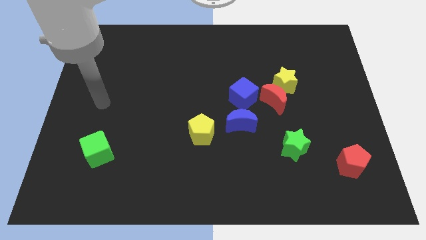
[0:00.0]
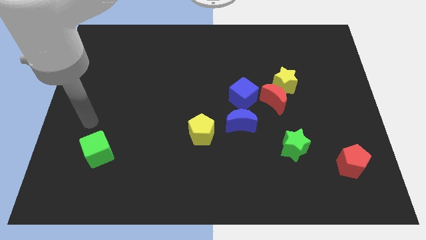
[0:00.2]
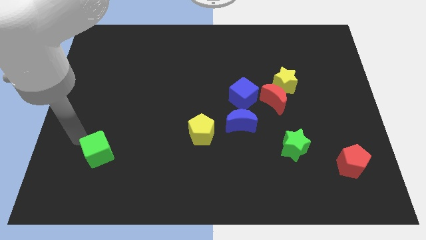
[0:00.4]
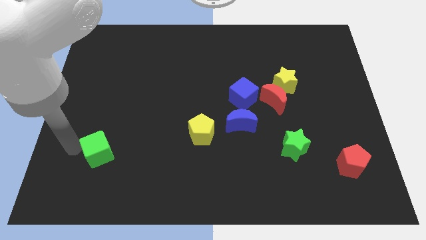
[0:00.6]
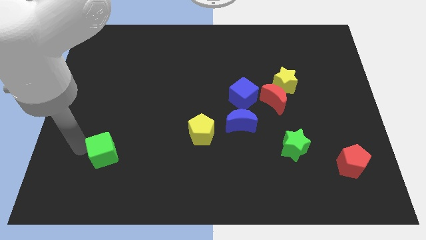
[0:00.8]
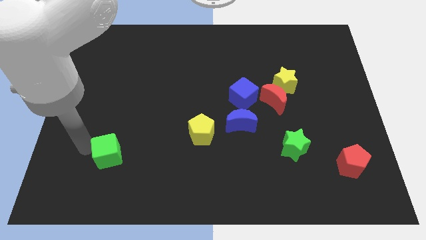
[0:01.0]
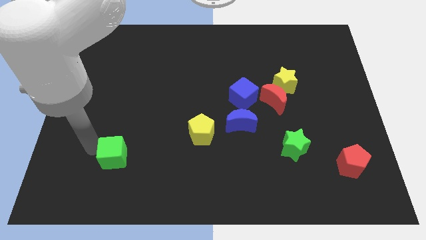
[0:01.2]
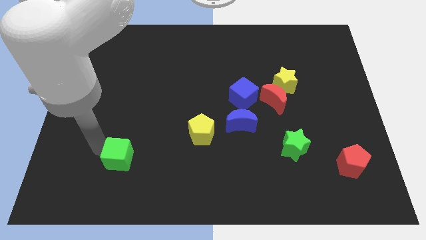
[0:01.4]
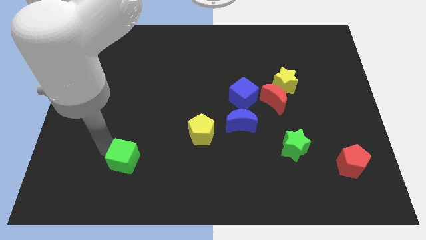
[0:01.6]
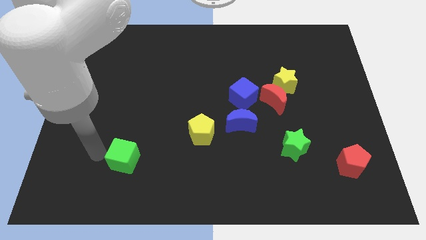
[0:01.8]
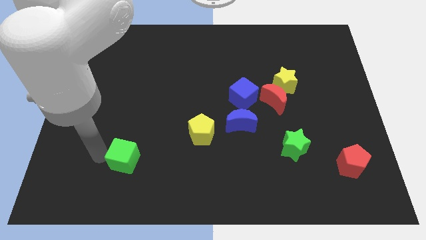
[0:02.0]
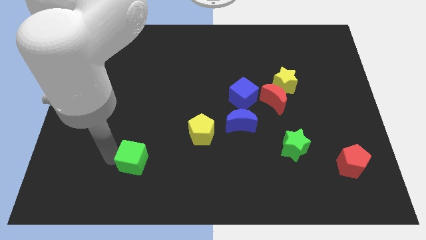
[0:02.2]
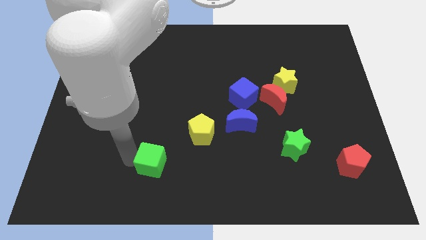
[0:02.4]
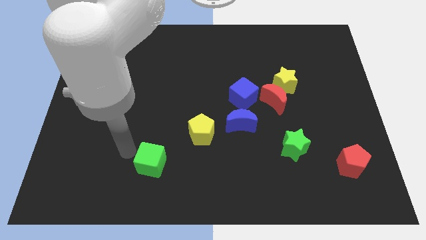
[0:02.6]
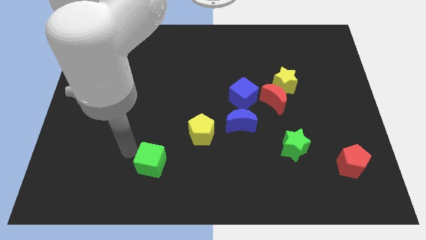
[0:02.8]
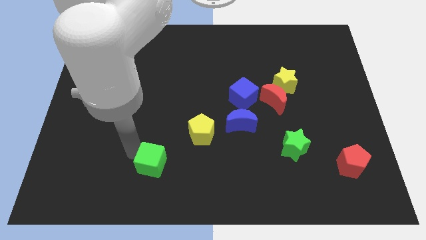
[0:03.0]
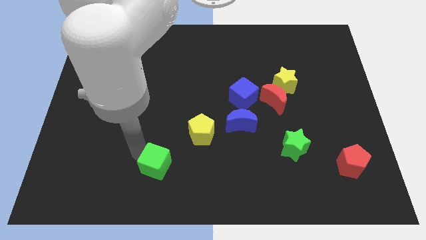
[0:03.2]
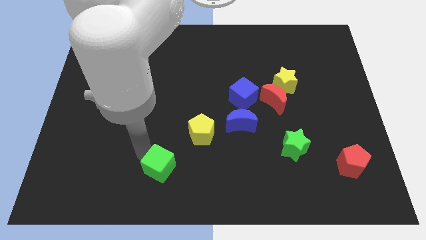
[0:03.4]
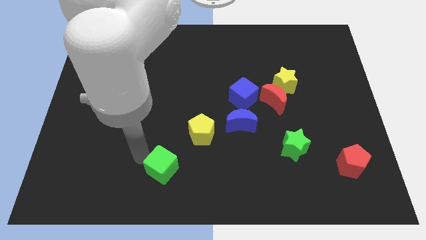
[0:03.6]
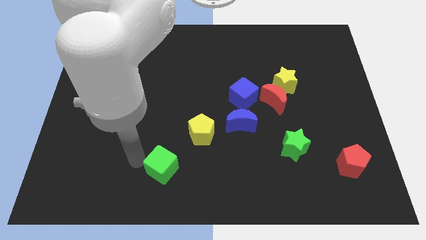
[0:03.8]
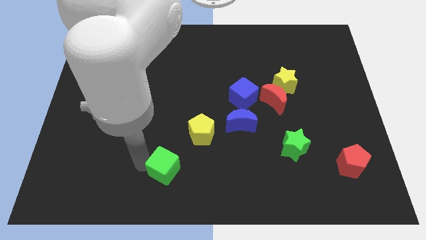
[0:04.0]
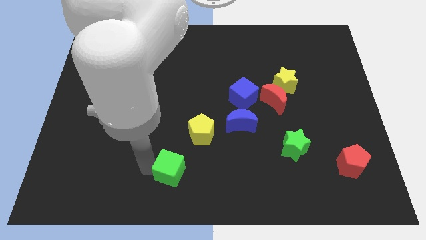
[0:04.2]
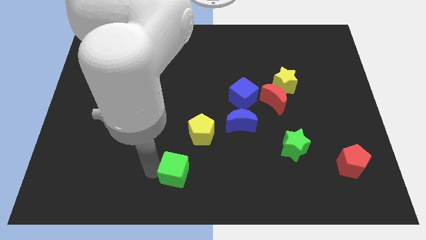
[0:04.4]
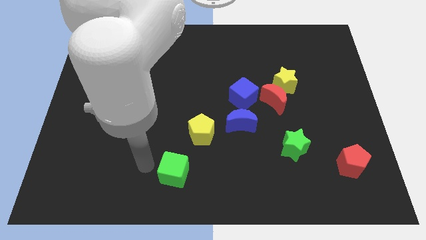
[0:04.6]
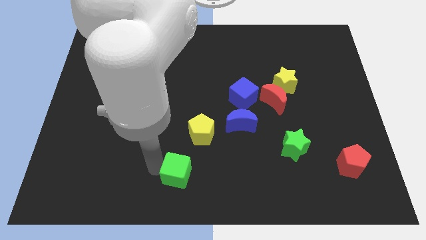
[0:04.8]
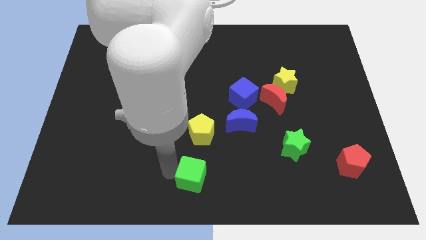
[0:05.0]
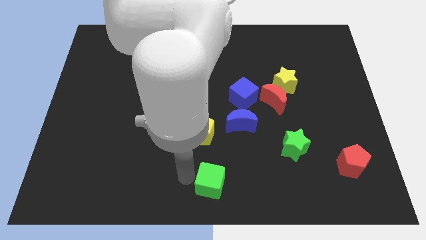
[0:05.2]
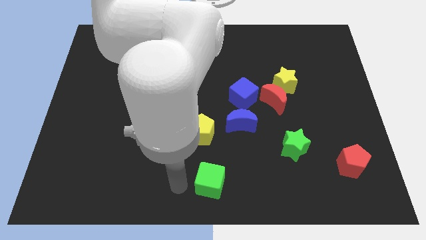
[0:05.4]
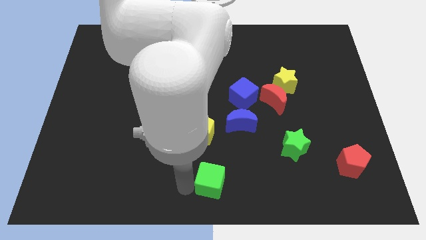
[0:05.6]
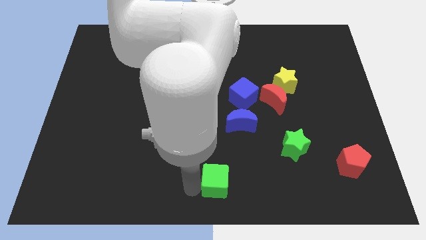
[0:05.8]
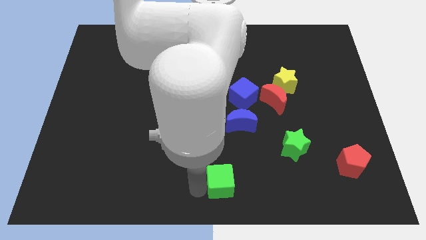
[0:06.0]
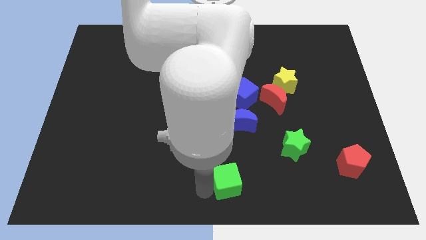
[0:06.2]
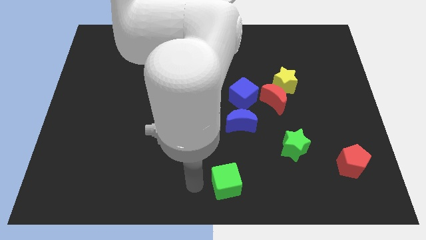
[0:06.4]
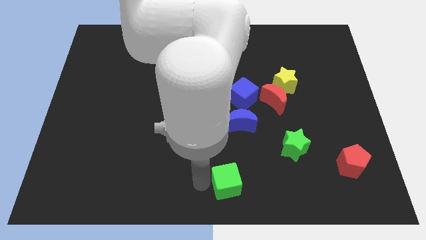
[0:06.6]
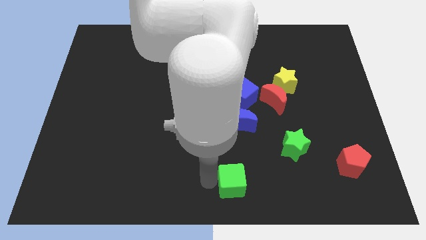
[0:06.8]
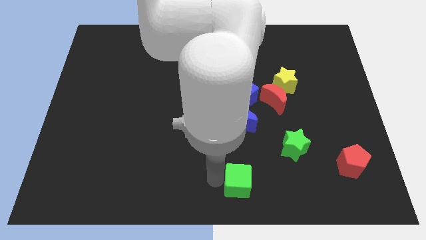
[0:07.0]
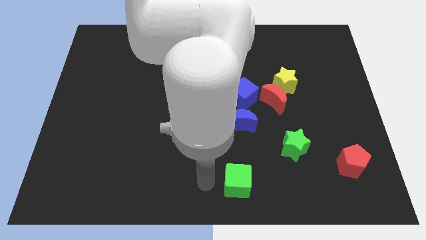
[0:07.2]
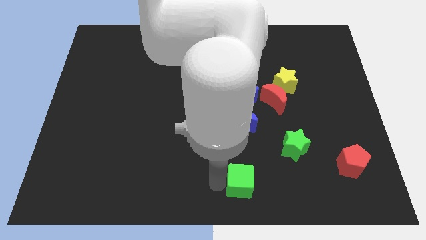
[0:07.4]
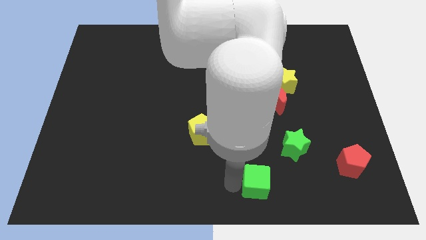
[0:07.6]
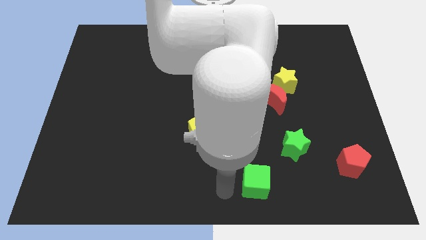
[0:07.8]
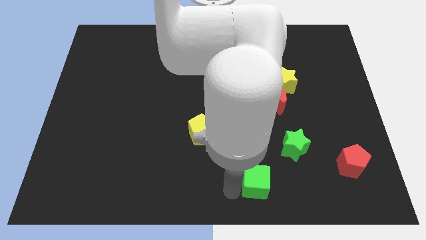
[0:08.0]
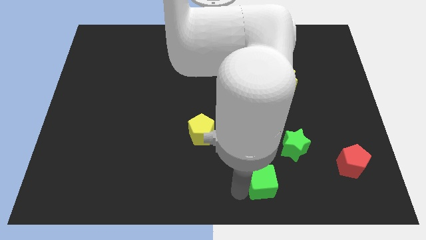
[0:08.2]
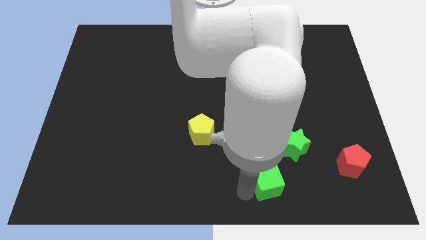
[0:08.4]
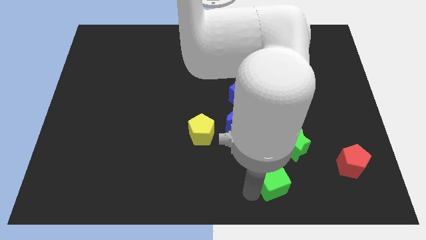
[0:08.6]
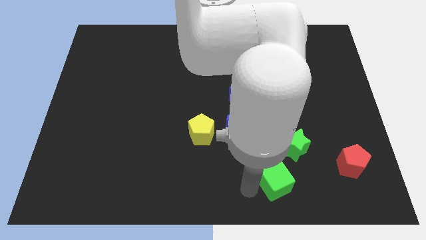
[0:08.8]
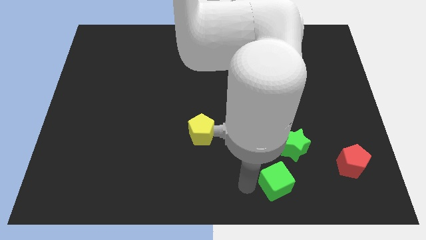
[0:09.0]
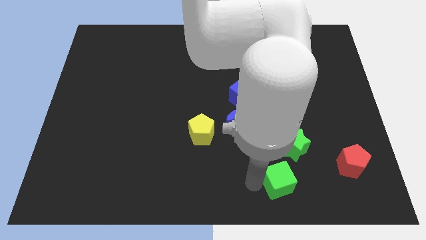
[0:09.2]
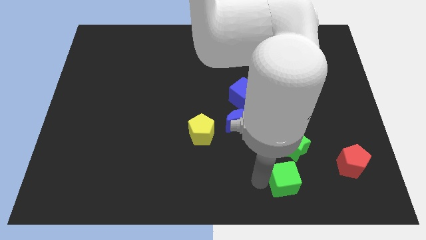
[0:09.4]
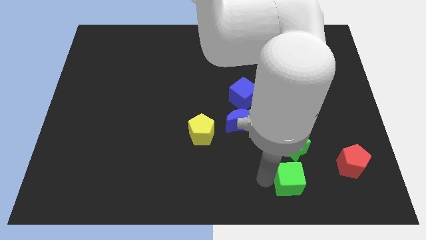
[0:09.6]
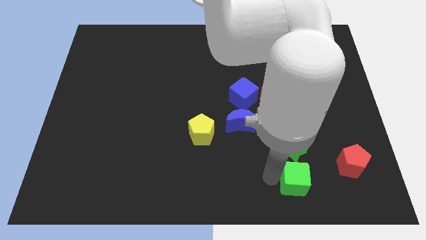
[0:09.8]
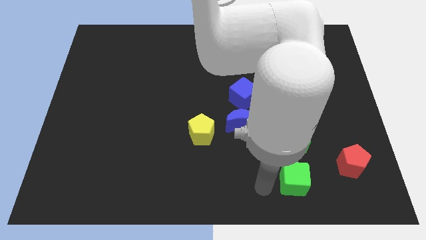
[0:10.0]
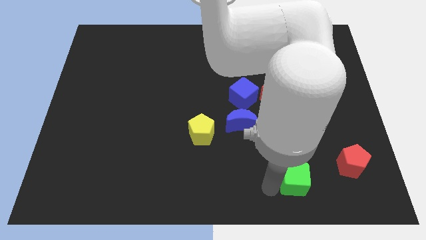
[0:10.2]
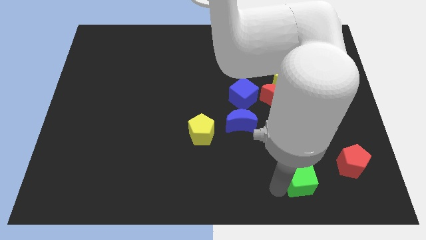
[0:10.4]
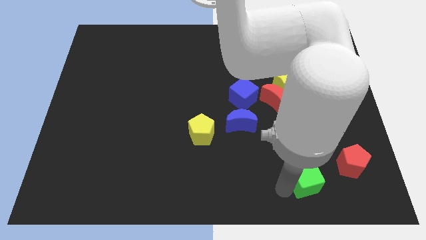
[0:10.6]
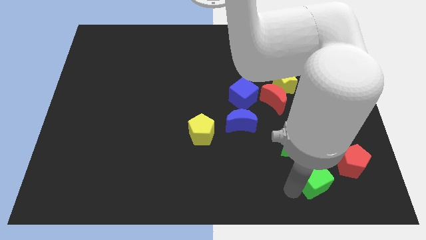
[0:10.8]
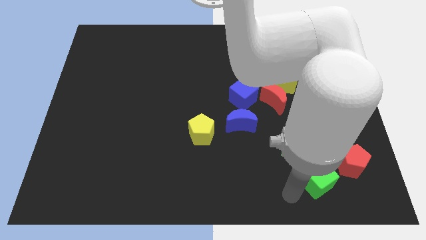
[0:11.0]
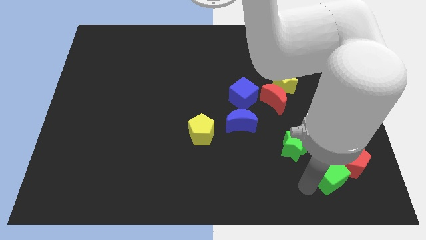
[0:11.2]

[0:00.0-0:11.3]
put the green cube towards the red pentagon

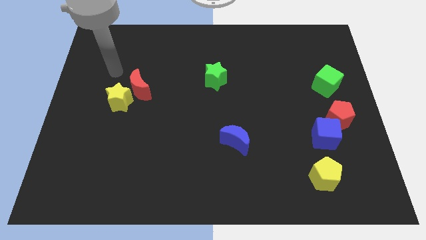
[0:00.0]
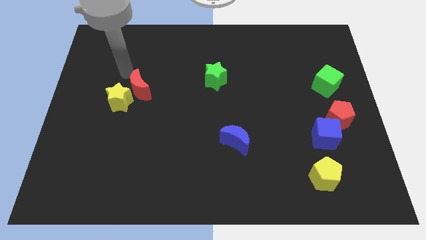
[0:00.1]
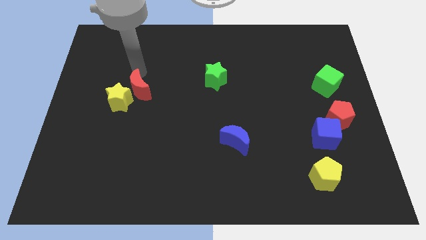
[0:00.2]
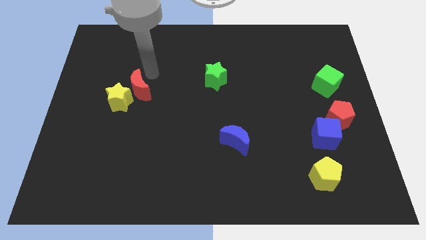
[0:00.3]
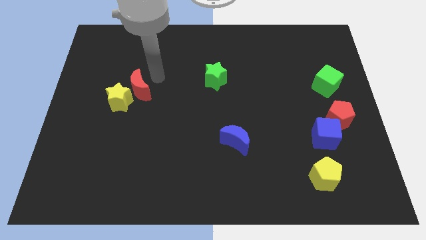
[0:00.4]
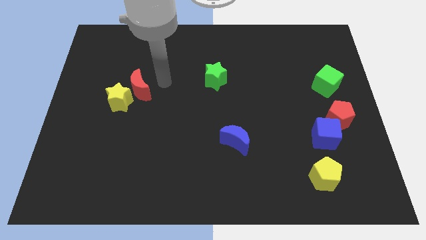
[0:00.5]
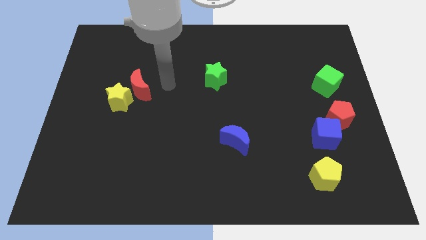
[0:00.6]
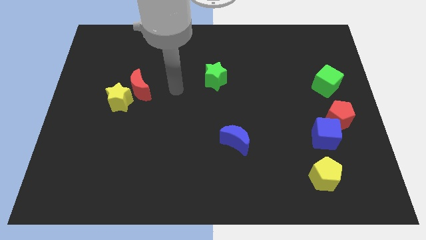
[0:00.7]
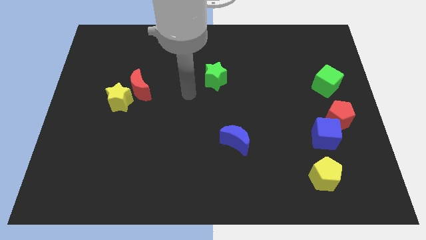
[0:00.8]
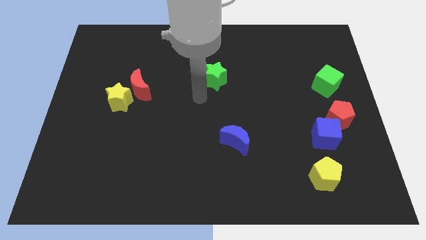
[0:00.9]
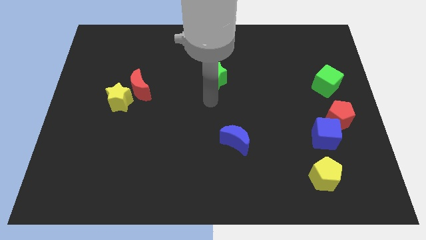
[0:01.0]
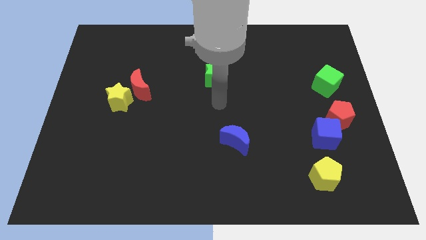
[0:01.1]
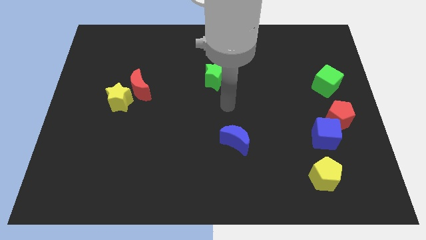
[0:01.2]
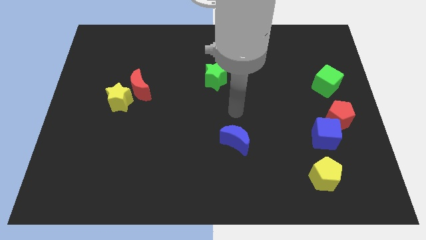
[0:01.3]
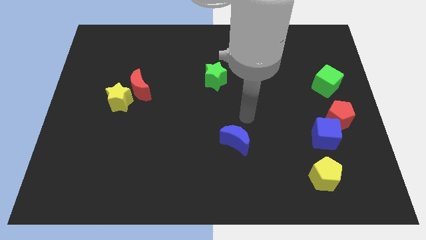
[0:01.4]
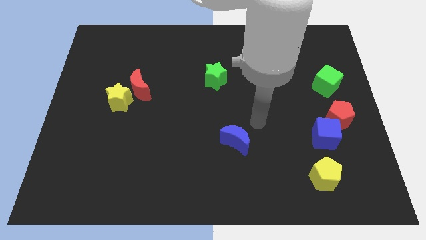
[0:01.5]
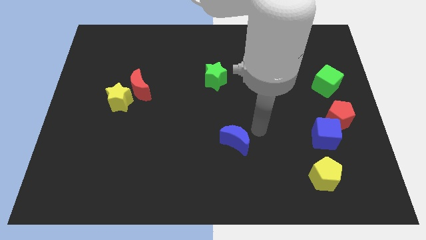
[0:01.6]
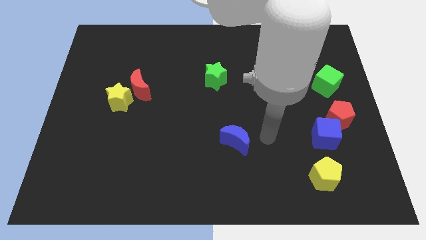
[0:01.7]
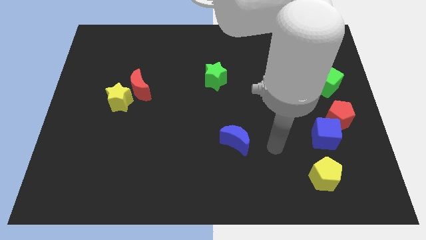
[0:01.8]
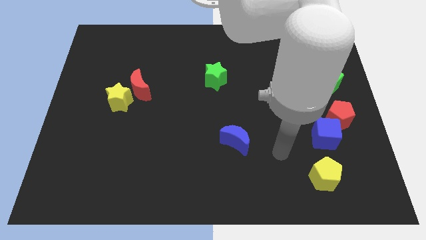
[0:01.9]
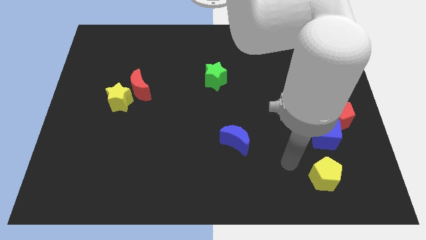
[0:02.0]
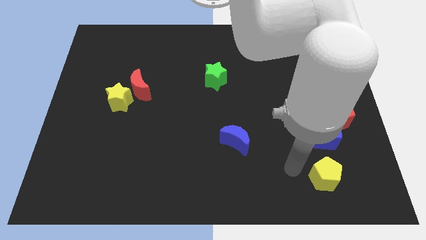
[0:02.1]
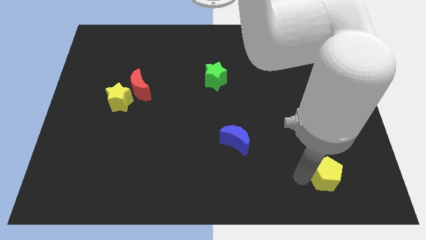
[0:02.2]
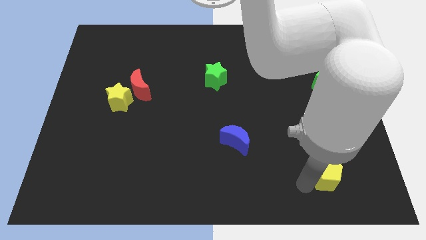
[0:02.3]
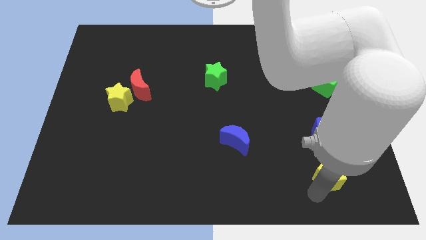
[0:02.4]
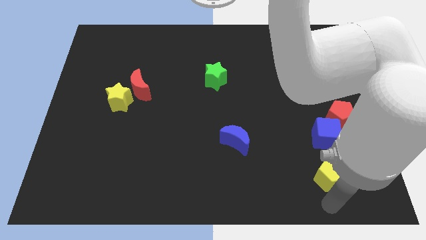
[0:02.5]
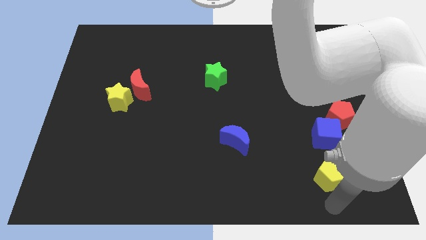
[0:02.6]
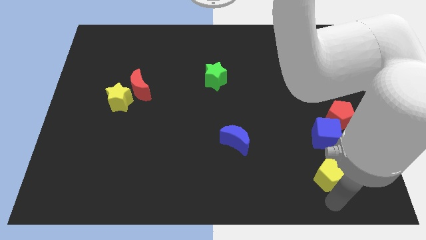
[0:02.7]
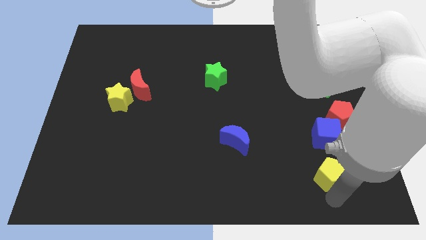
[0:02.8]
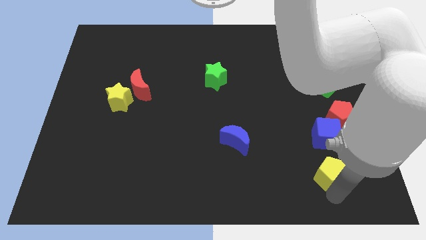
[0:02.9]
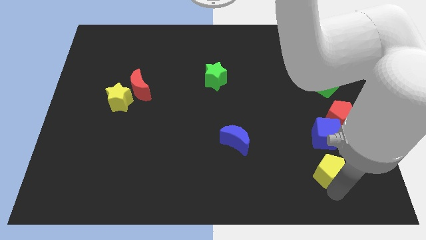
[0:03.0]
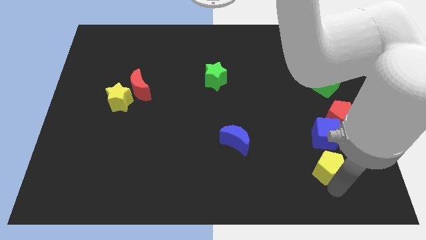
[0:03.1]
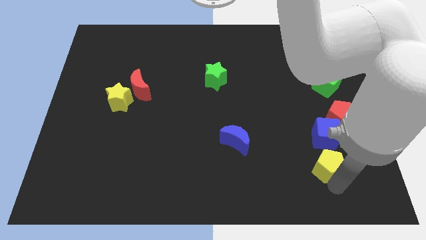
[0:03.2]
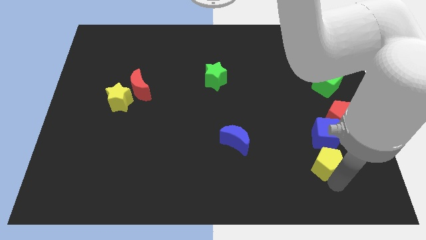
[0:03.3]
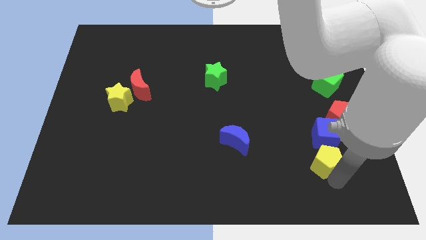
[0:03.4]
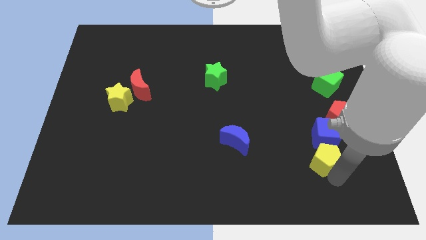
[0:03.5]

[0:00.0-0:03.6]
put the yellow pentagon to the blue cube
